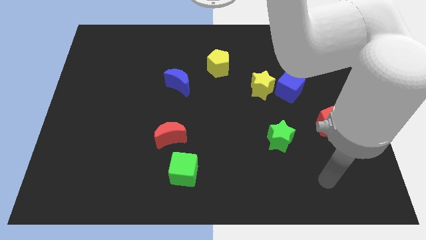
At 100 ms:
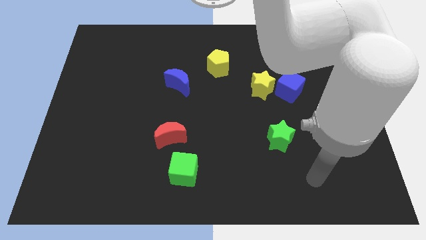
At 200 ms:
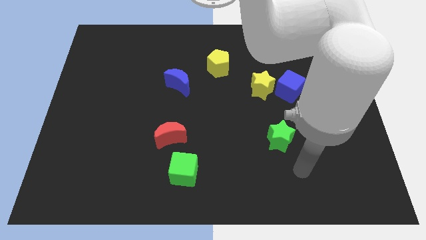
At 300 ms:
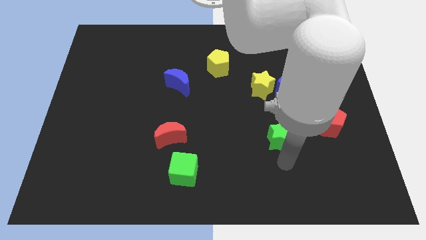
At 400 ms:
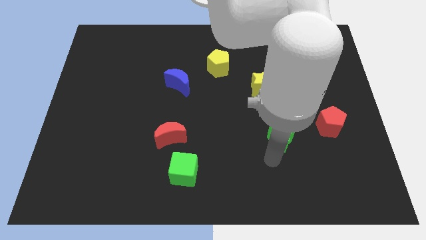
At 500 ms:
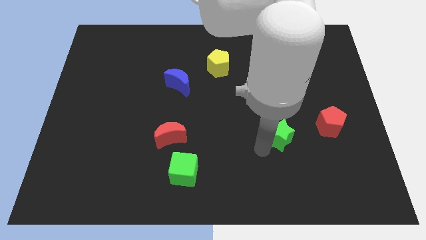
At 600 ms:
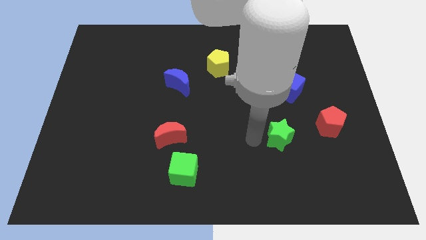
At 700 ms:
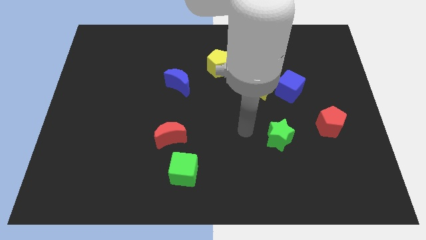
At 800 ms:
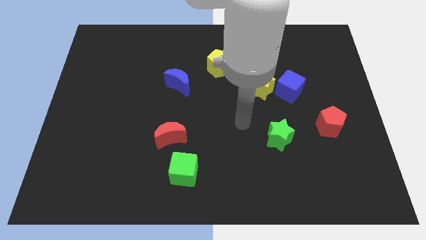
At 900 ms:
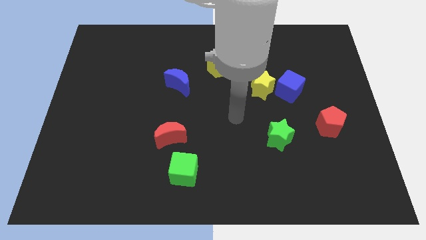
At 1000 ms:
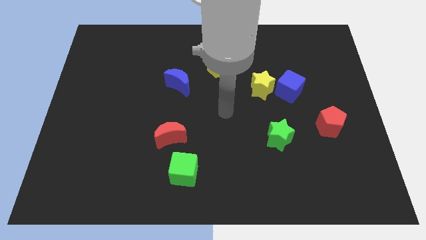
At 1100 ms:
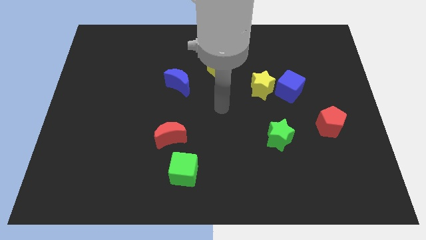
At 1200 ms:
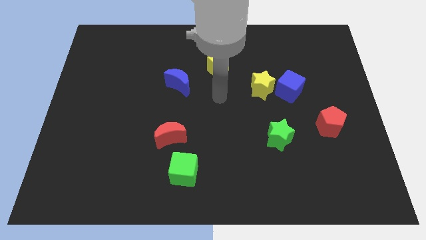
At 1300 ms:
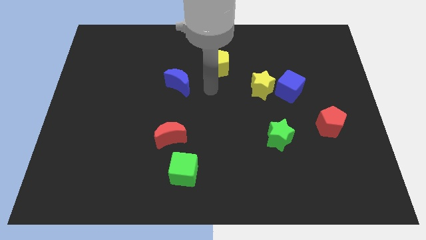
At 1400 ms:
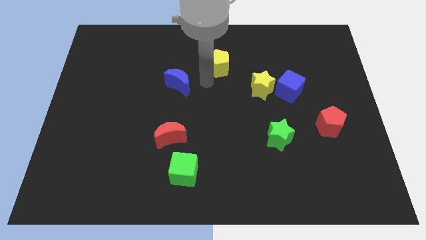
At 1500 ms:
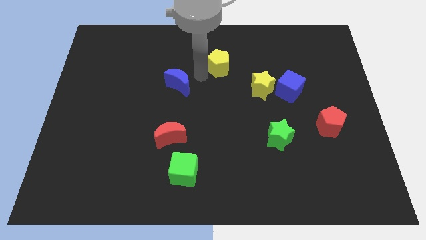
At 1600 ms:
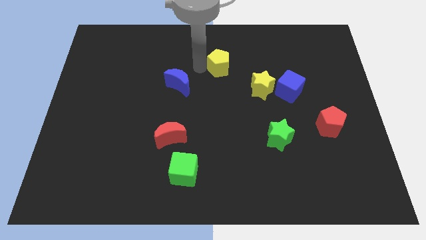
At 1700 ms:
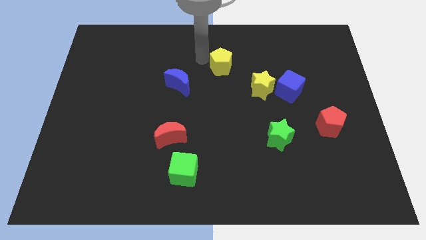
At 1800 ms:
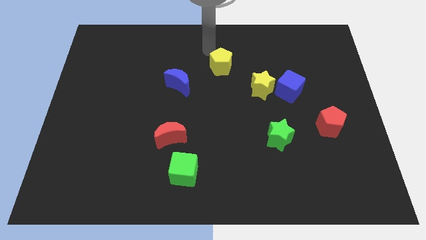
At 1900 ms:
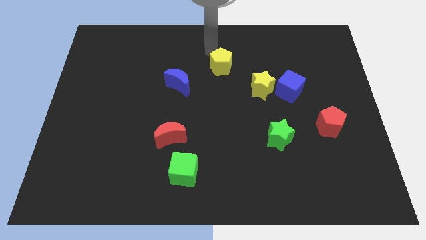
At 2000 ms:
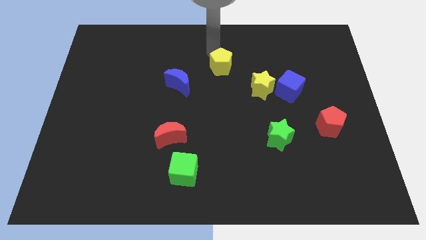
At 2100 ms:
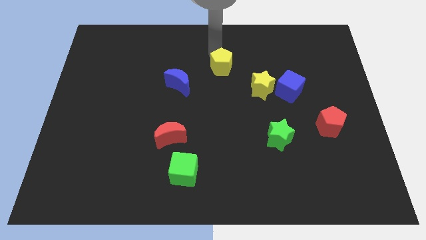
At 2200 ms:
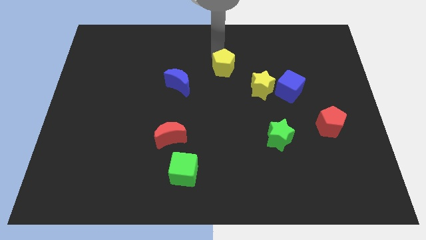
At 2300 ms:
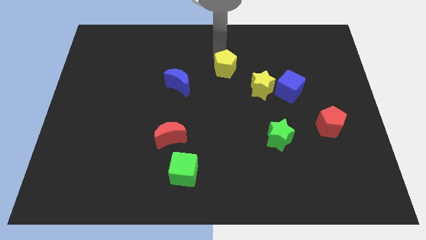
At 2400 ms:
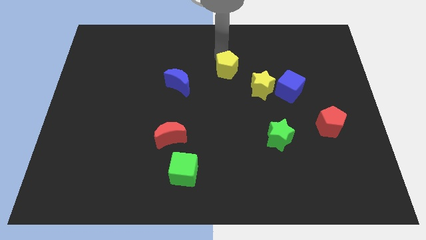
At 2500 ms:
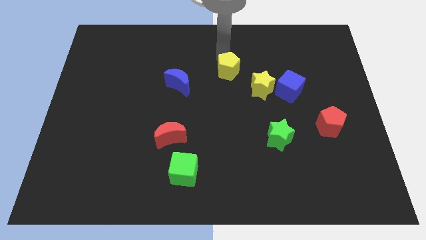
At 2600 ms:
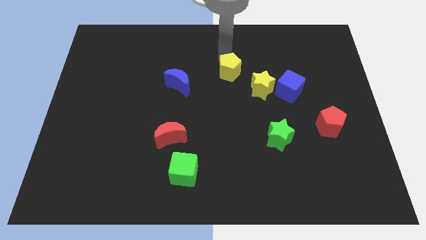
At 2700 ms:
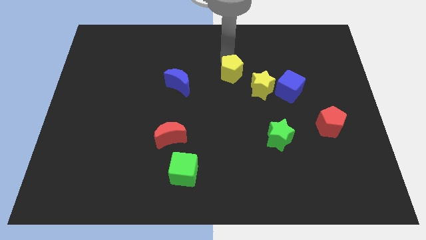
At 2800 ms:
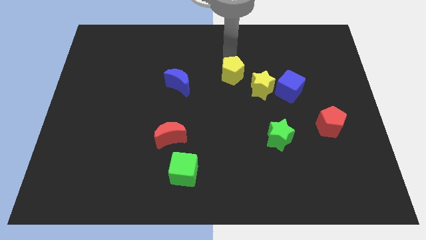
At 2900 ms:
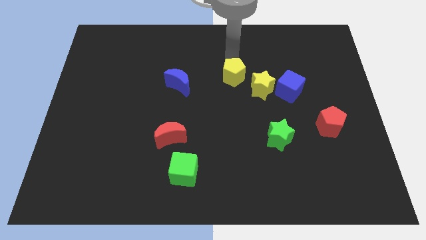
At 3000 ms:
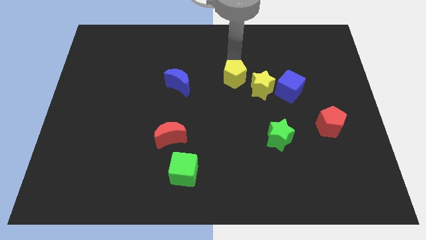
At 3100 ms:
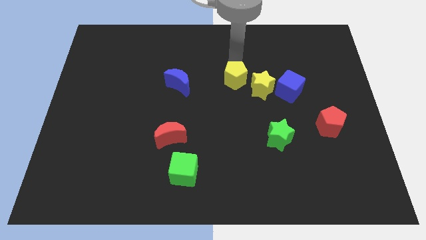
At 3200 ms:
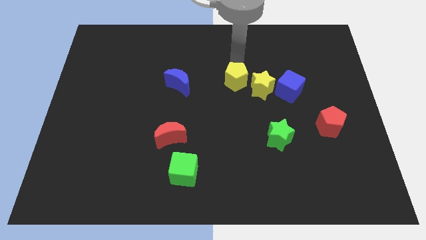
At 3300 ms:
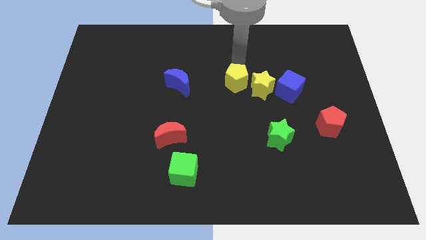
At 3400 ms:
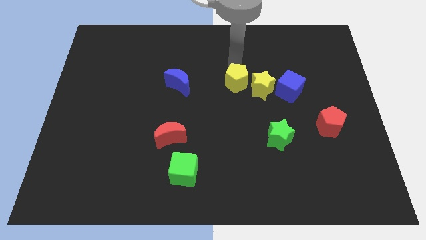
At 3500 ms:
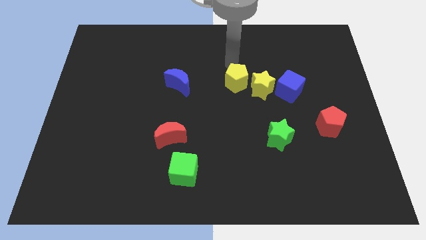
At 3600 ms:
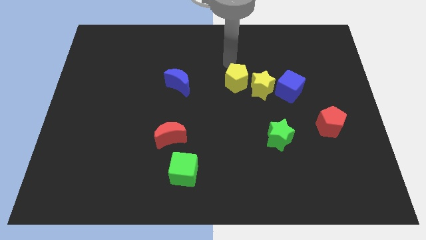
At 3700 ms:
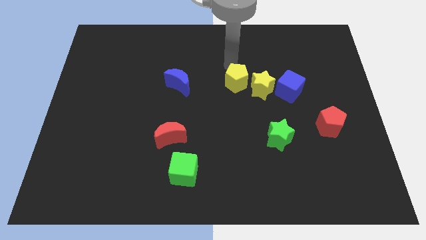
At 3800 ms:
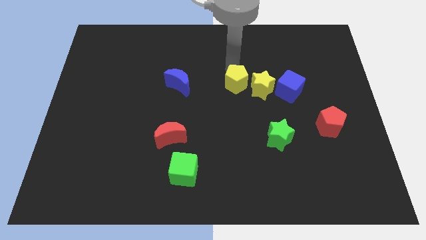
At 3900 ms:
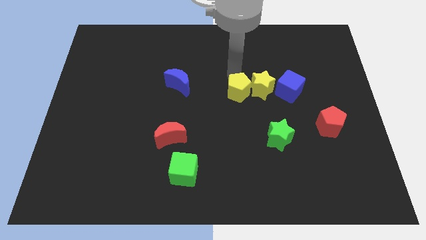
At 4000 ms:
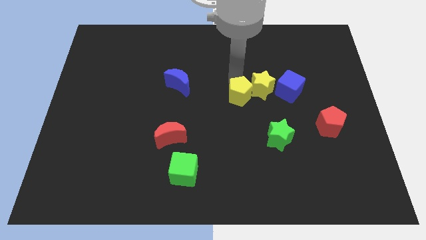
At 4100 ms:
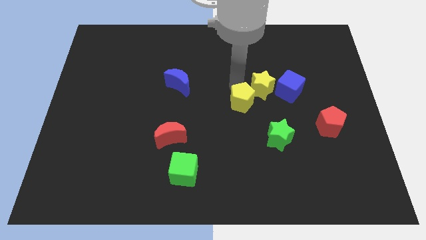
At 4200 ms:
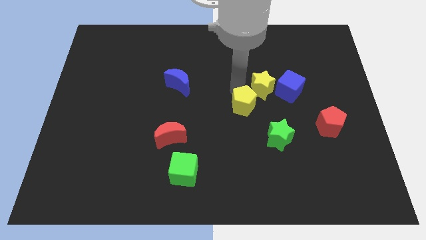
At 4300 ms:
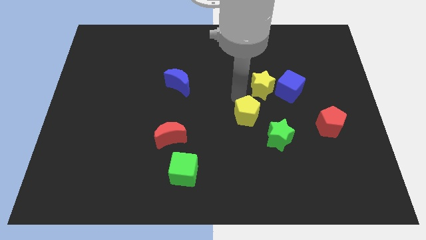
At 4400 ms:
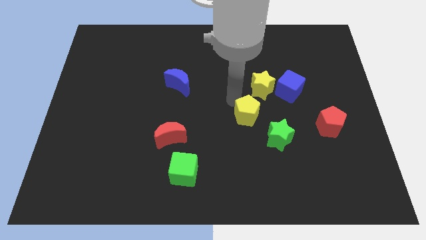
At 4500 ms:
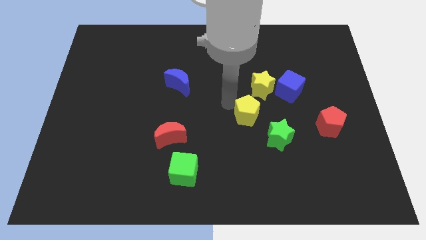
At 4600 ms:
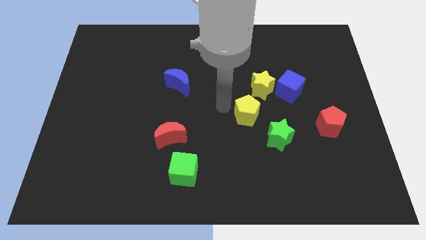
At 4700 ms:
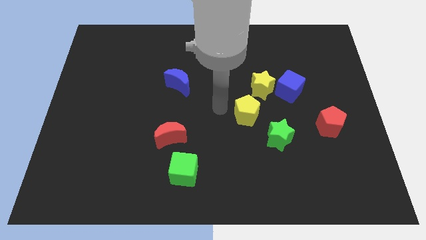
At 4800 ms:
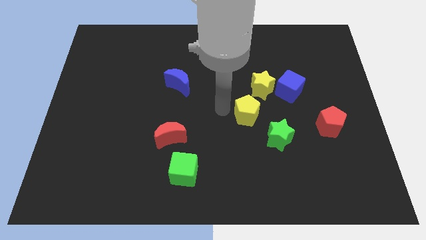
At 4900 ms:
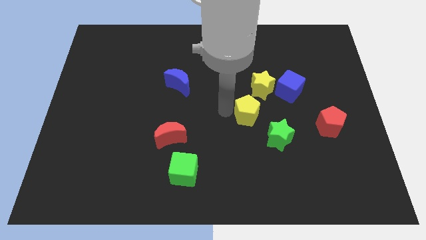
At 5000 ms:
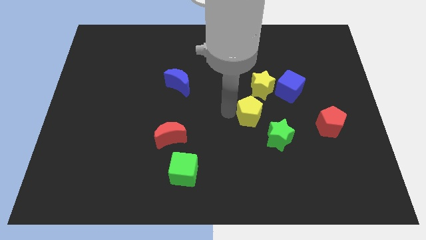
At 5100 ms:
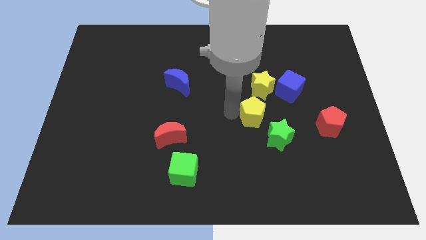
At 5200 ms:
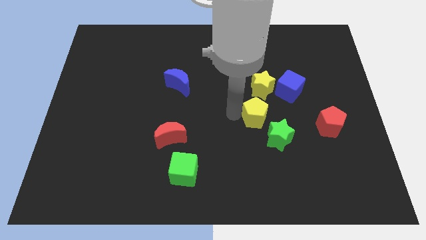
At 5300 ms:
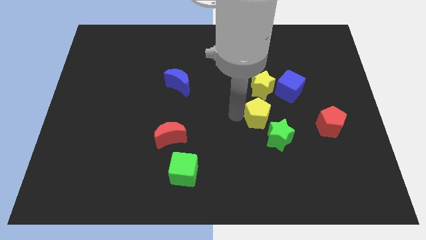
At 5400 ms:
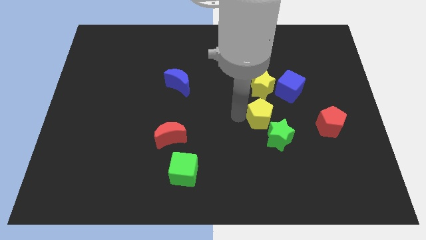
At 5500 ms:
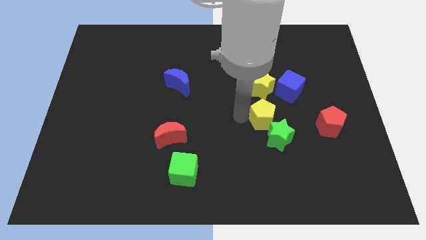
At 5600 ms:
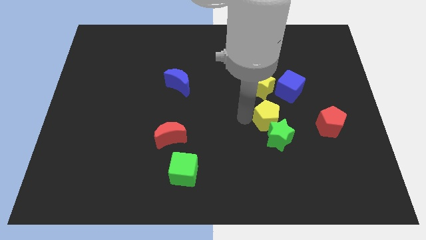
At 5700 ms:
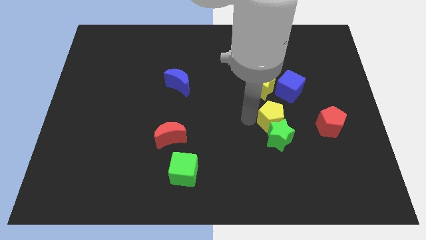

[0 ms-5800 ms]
push the yellow pentagon down and to the right diagonally

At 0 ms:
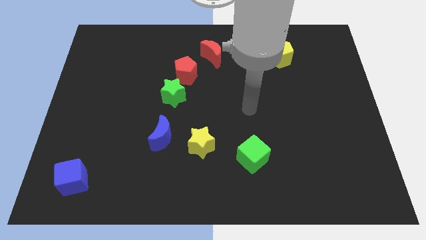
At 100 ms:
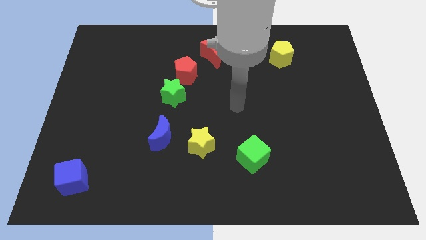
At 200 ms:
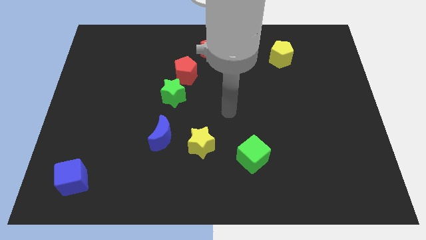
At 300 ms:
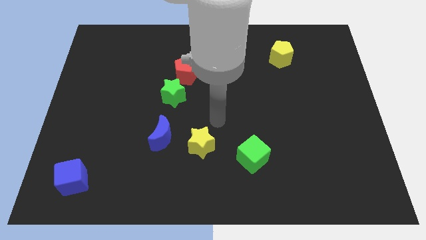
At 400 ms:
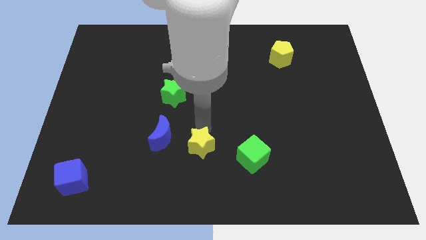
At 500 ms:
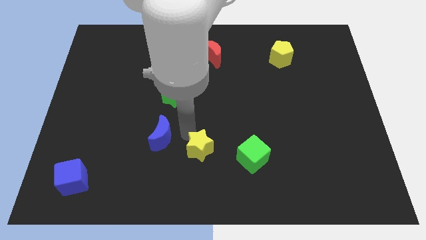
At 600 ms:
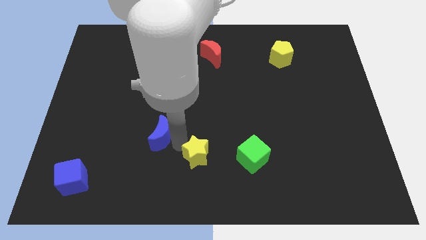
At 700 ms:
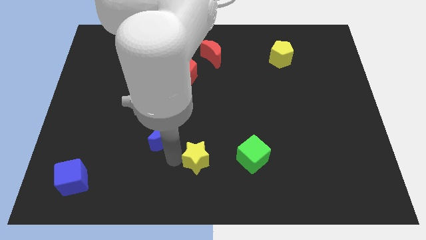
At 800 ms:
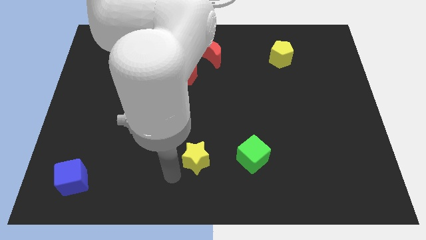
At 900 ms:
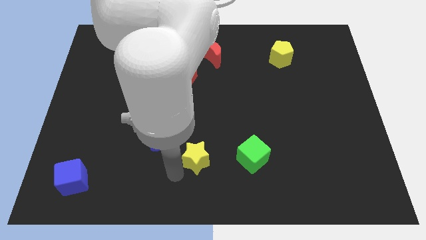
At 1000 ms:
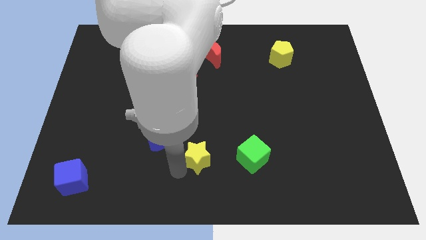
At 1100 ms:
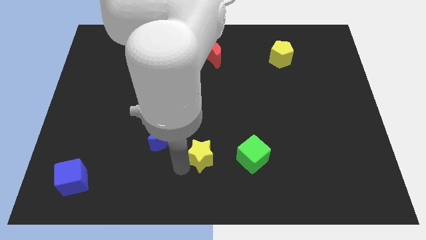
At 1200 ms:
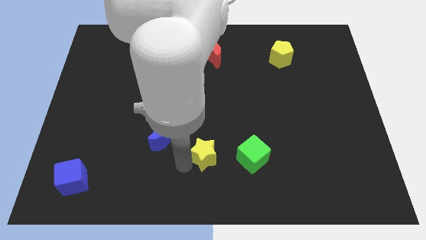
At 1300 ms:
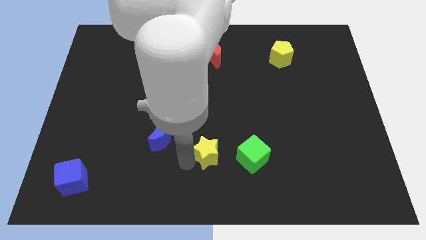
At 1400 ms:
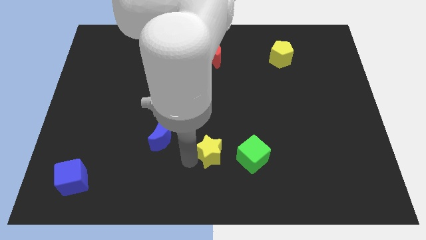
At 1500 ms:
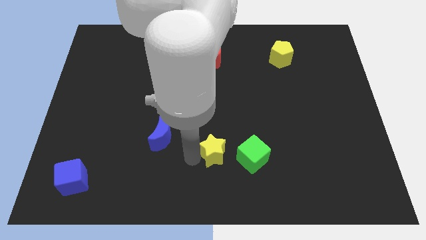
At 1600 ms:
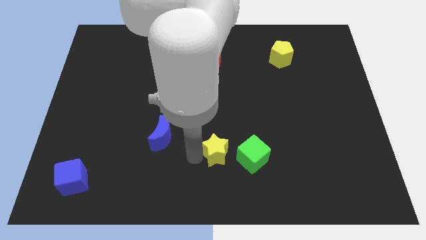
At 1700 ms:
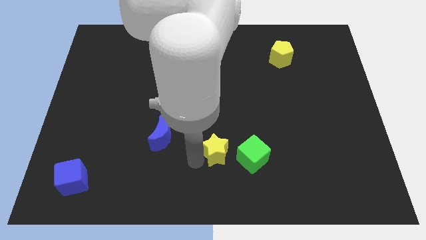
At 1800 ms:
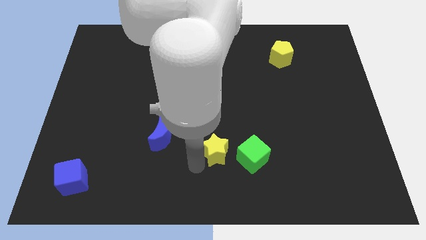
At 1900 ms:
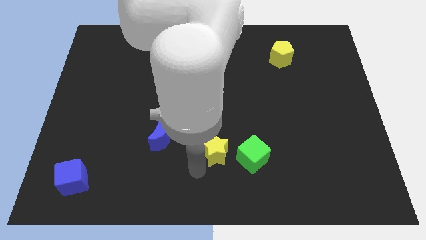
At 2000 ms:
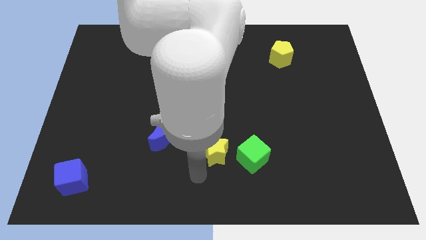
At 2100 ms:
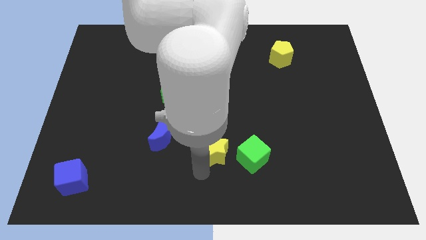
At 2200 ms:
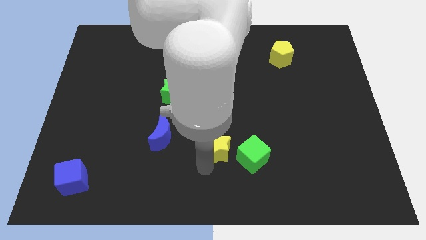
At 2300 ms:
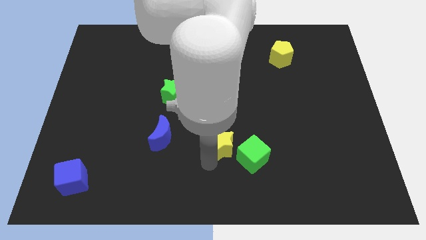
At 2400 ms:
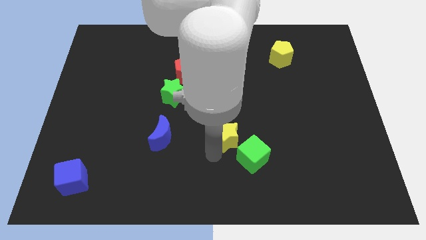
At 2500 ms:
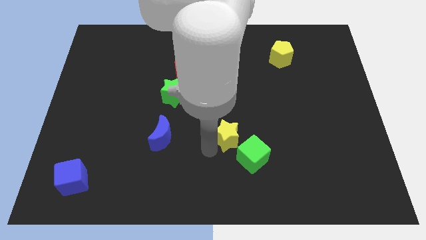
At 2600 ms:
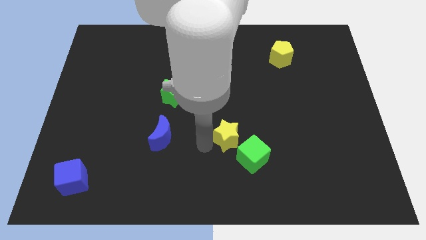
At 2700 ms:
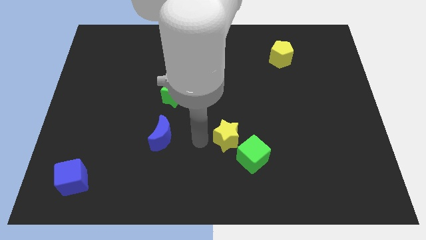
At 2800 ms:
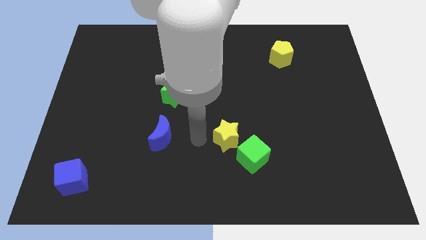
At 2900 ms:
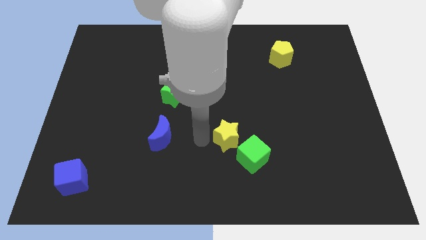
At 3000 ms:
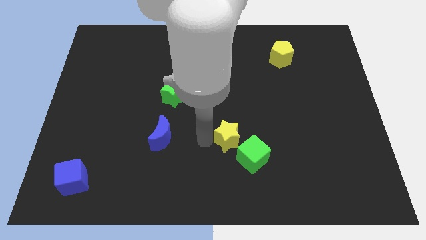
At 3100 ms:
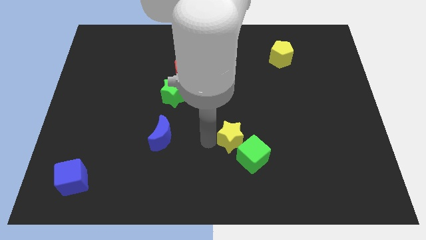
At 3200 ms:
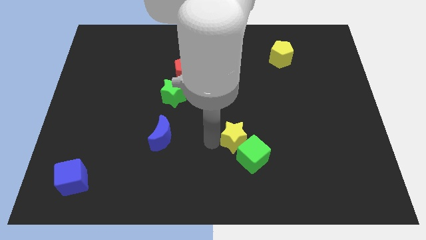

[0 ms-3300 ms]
slide the yellow star somewhat to the right
